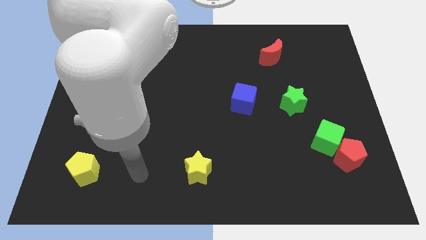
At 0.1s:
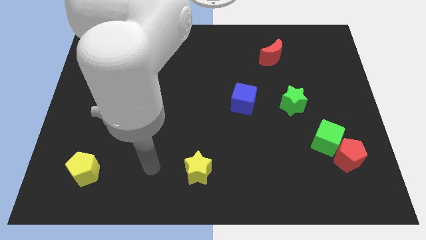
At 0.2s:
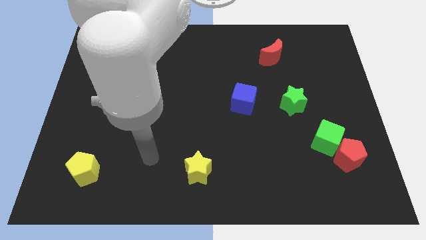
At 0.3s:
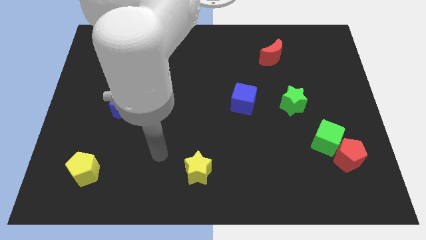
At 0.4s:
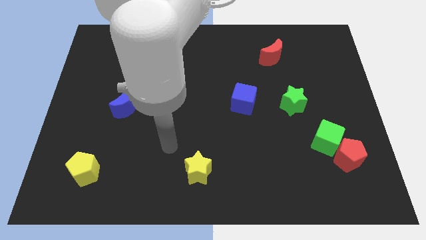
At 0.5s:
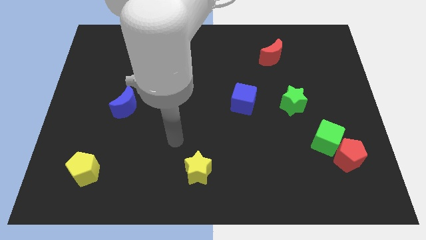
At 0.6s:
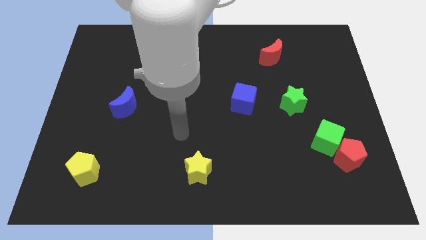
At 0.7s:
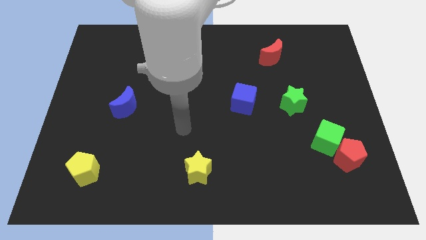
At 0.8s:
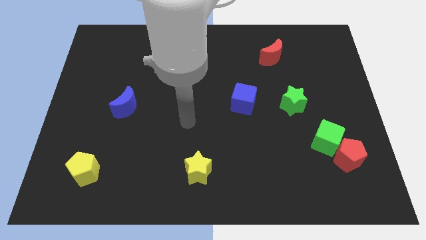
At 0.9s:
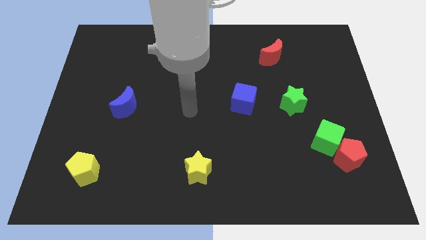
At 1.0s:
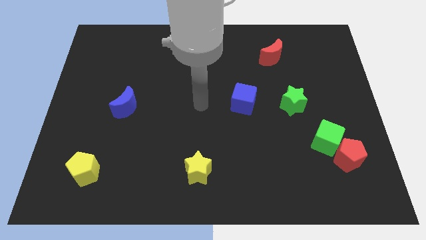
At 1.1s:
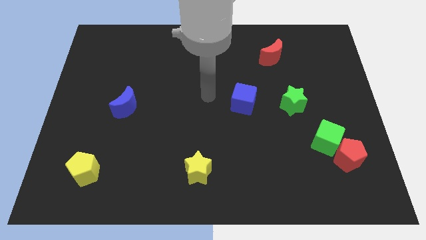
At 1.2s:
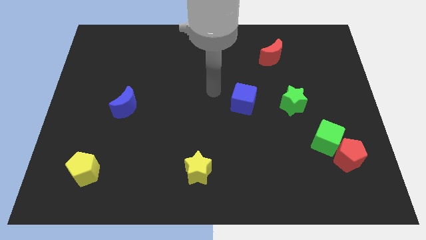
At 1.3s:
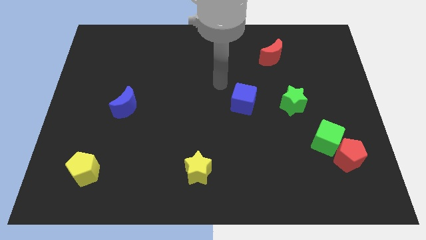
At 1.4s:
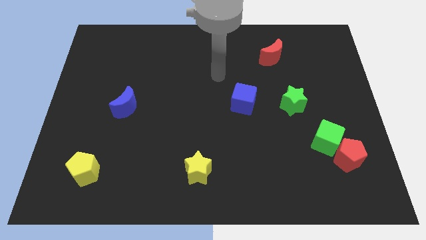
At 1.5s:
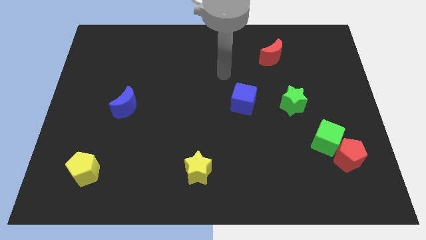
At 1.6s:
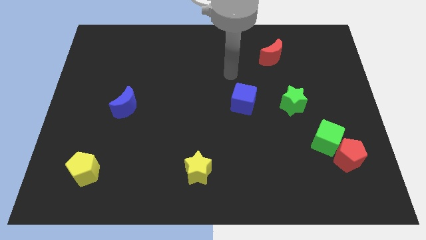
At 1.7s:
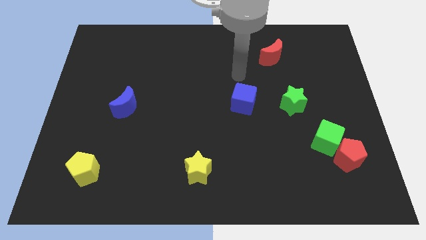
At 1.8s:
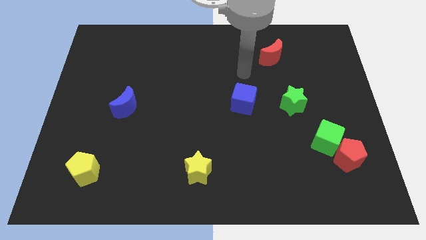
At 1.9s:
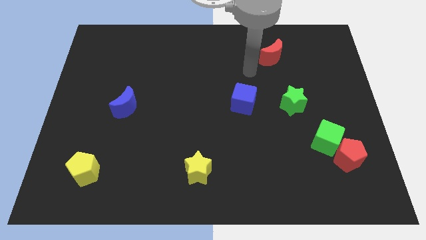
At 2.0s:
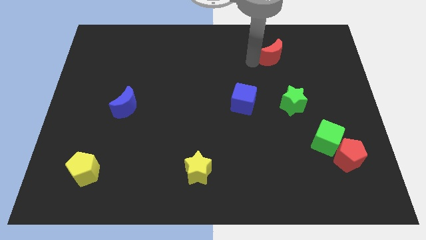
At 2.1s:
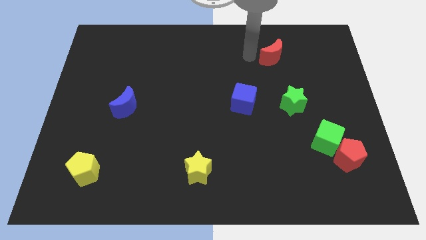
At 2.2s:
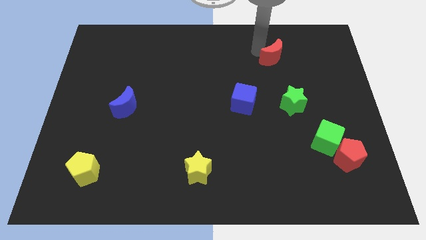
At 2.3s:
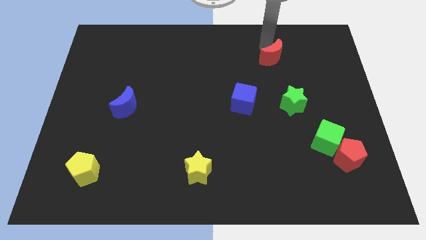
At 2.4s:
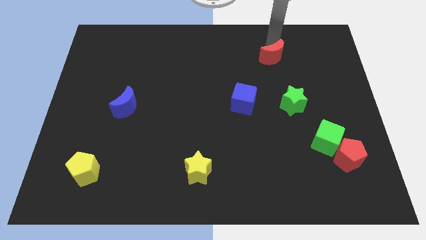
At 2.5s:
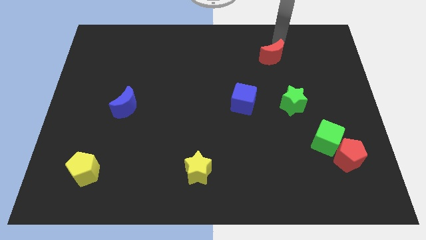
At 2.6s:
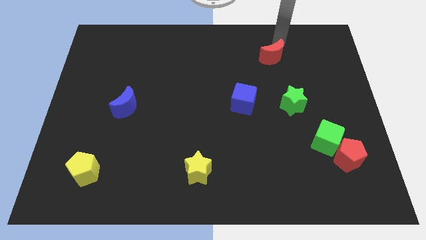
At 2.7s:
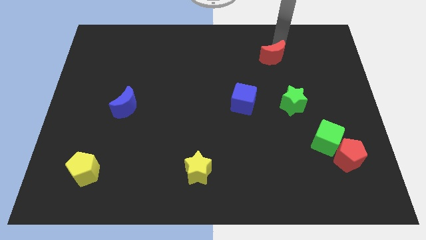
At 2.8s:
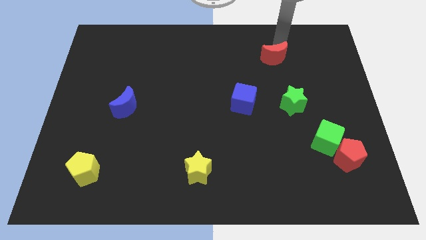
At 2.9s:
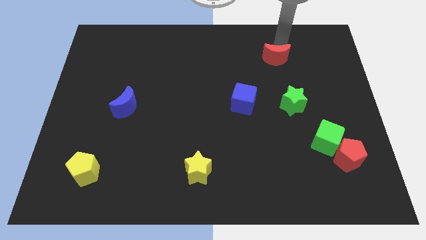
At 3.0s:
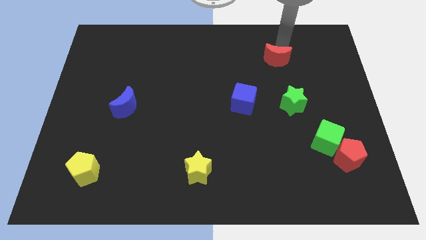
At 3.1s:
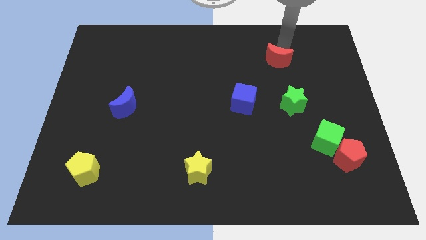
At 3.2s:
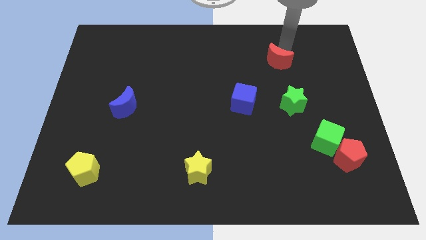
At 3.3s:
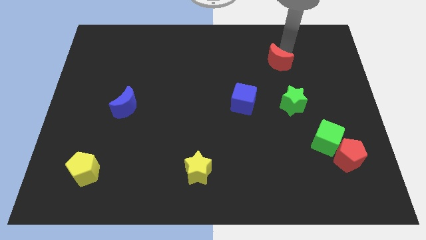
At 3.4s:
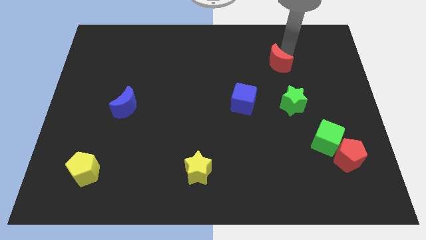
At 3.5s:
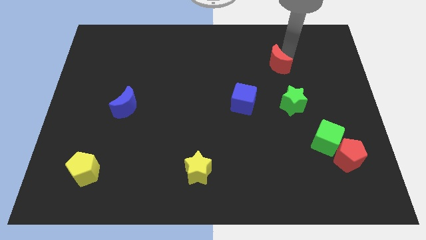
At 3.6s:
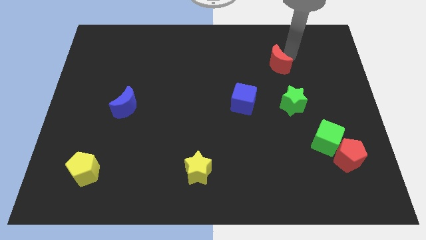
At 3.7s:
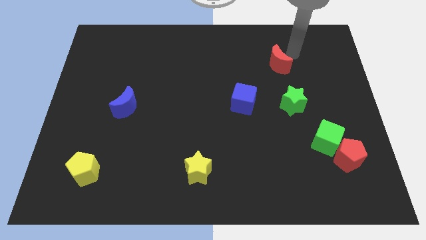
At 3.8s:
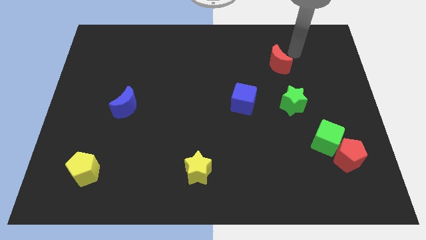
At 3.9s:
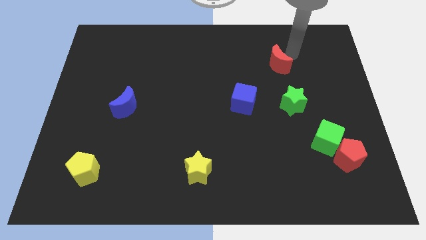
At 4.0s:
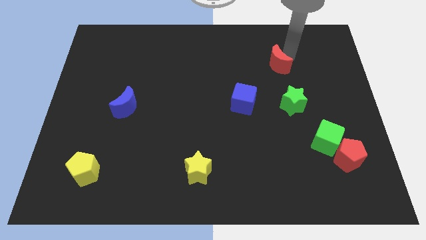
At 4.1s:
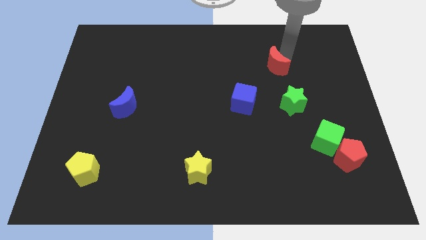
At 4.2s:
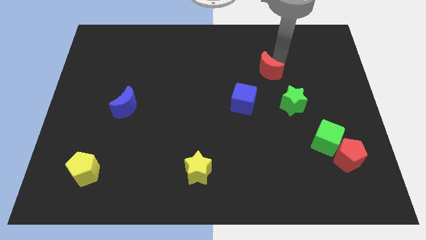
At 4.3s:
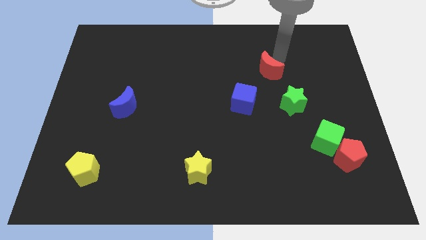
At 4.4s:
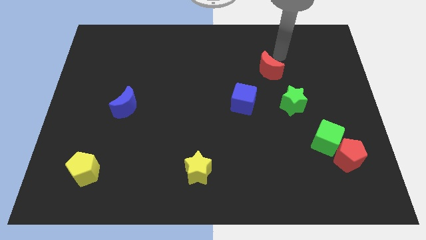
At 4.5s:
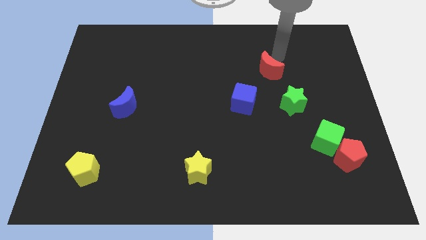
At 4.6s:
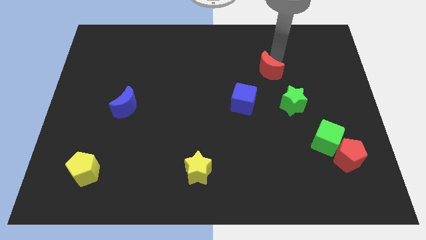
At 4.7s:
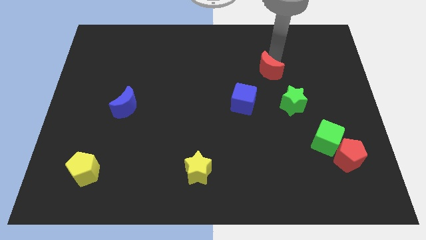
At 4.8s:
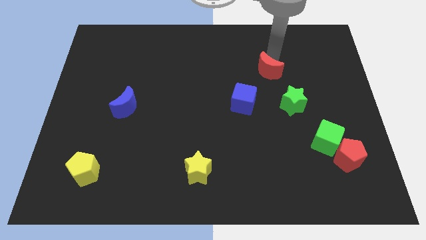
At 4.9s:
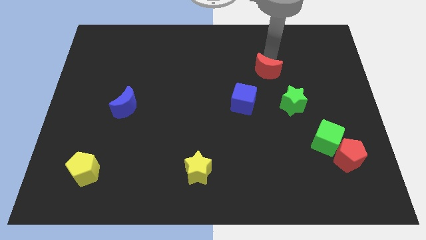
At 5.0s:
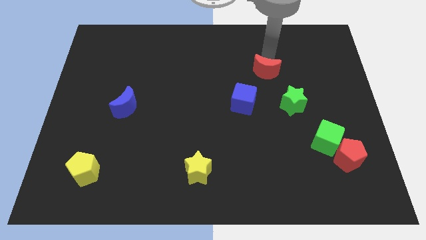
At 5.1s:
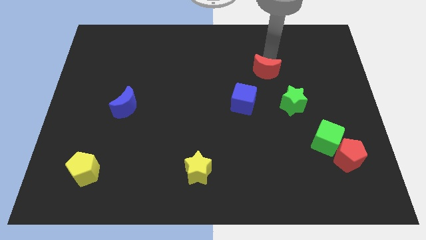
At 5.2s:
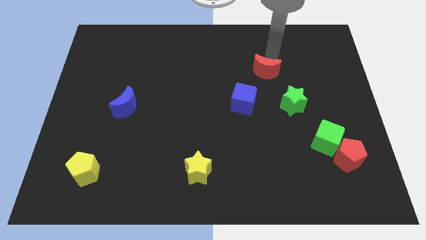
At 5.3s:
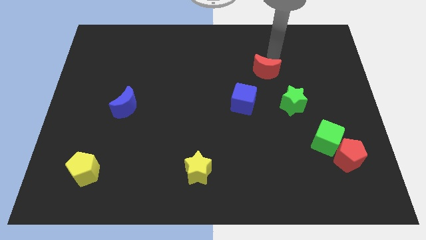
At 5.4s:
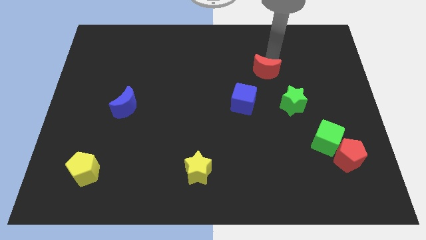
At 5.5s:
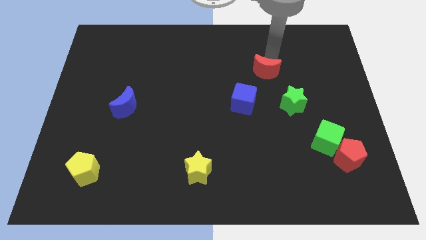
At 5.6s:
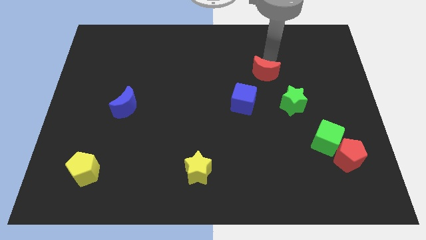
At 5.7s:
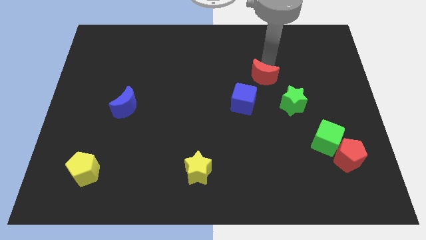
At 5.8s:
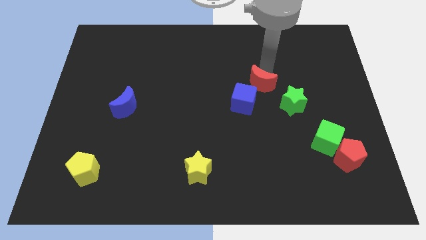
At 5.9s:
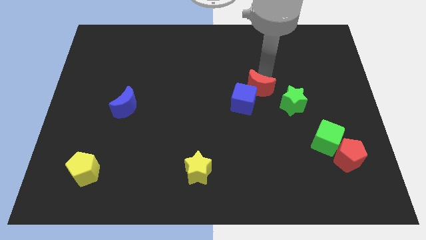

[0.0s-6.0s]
put the red moon towards the blue cube

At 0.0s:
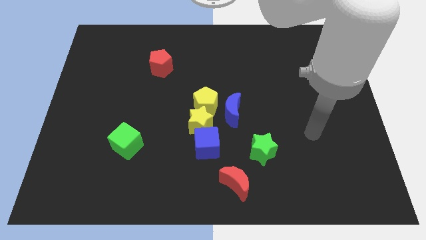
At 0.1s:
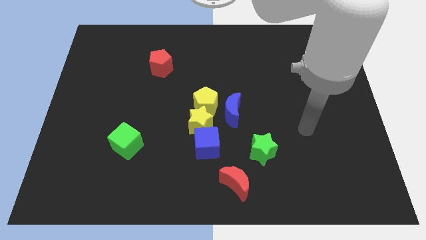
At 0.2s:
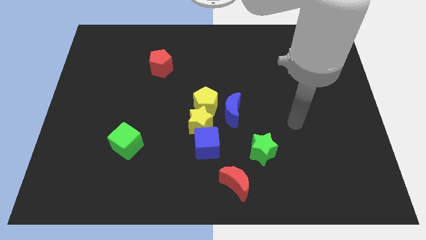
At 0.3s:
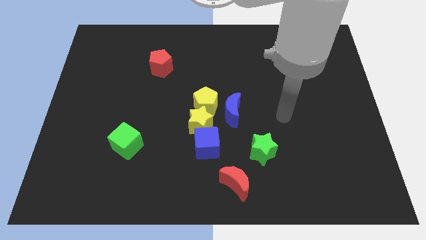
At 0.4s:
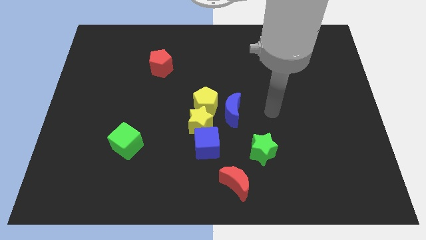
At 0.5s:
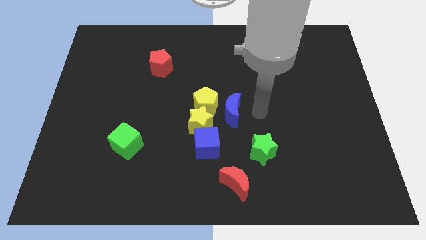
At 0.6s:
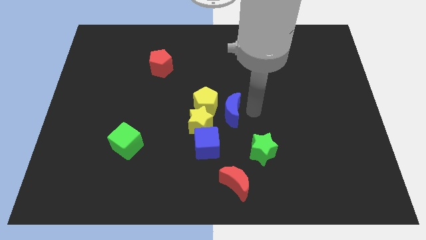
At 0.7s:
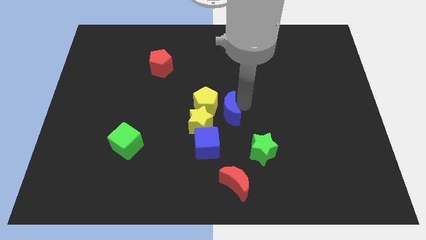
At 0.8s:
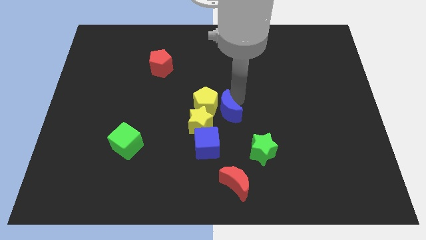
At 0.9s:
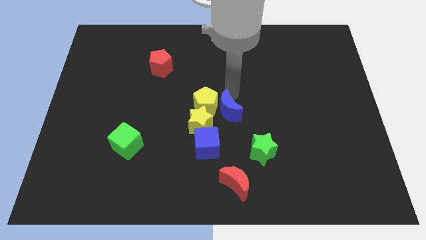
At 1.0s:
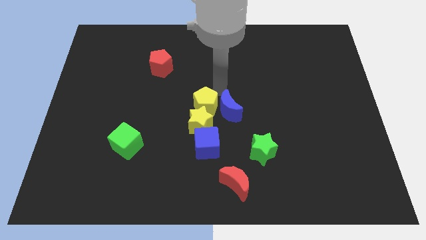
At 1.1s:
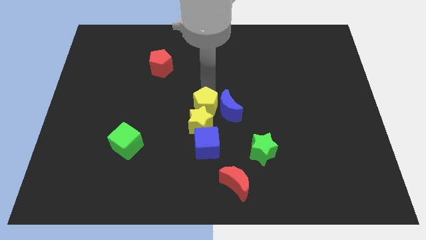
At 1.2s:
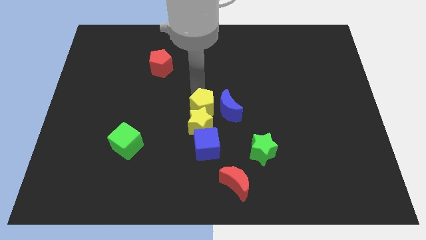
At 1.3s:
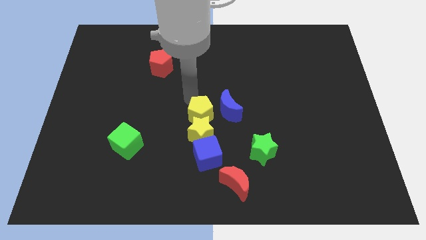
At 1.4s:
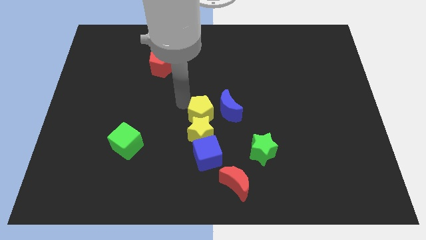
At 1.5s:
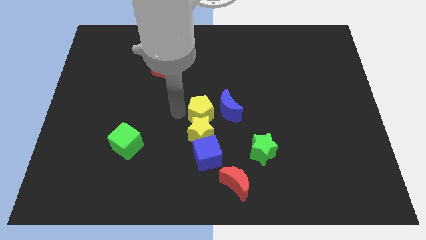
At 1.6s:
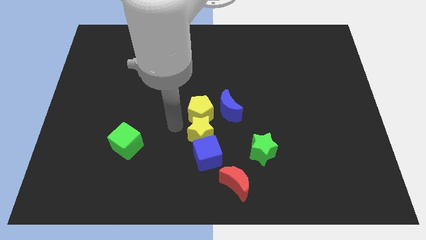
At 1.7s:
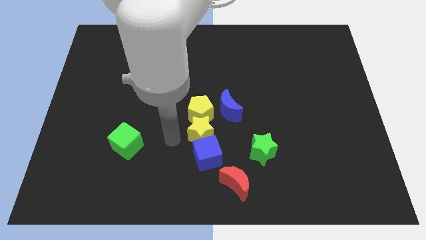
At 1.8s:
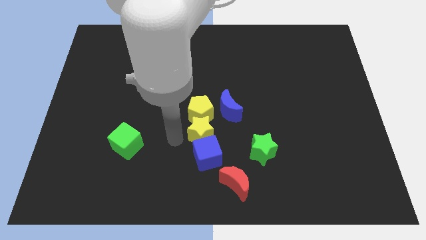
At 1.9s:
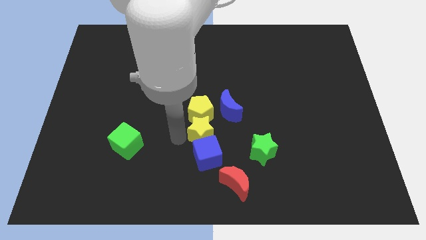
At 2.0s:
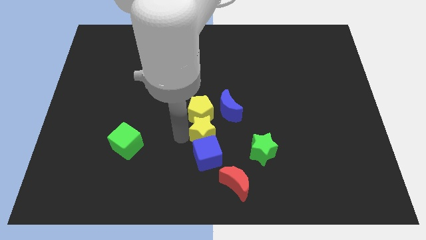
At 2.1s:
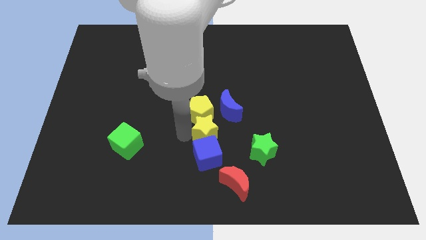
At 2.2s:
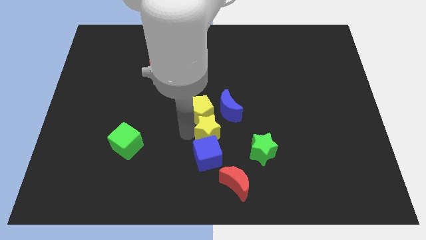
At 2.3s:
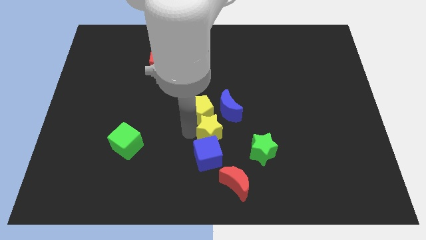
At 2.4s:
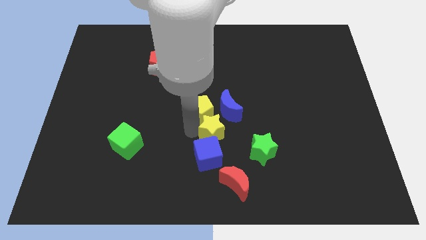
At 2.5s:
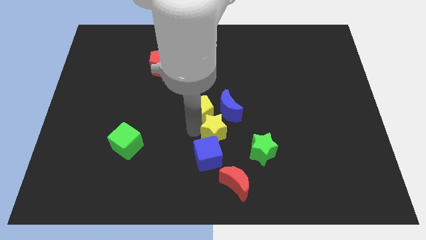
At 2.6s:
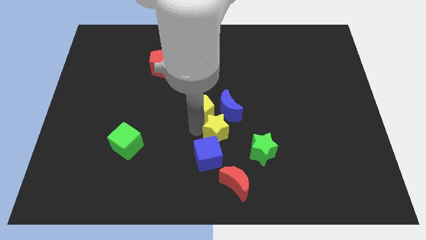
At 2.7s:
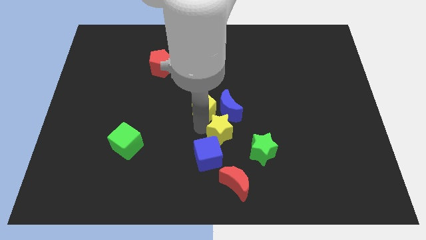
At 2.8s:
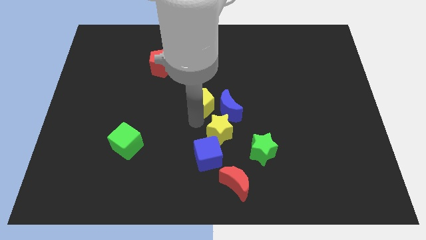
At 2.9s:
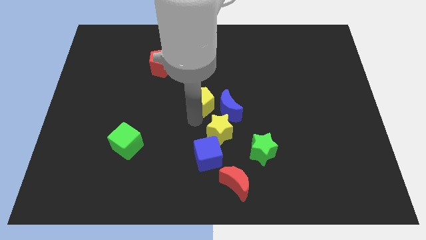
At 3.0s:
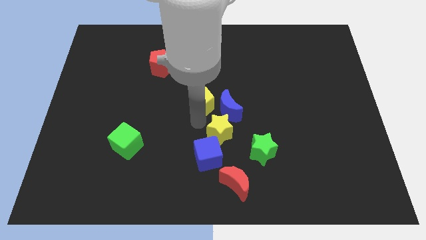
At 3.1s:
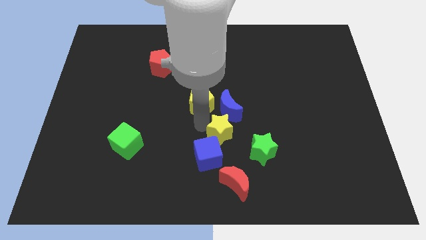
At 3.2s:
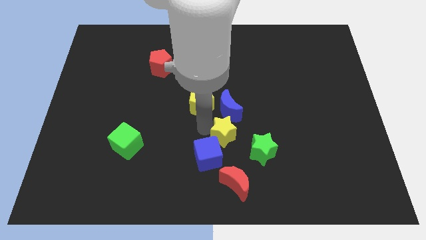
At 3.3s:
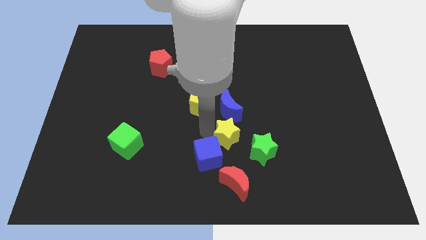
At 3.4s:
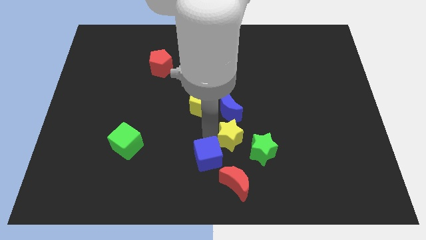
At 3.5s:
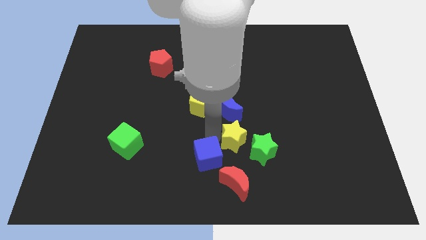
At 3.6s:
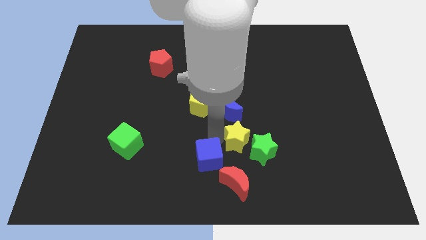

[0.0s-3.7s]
push the yellow star towards the green star
